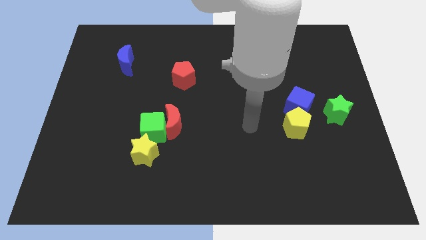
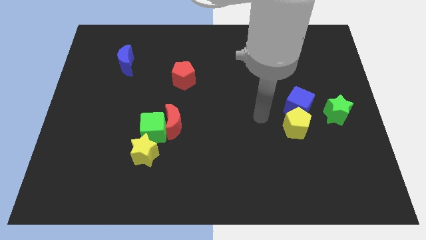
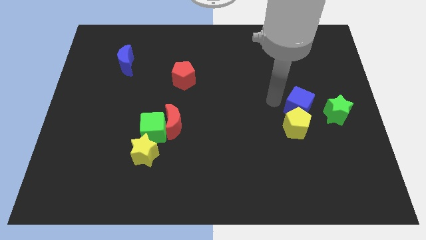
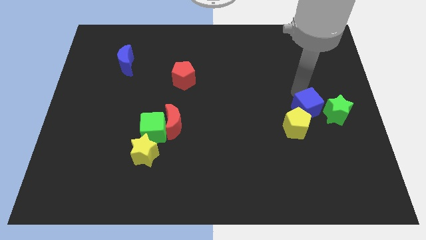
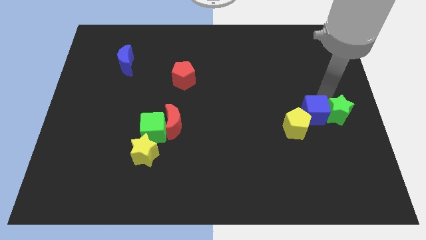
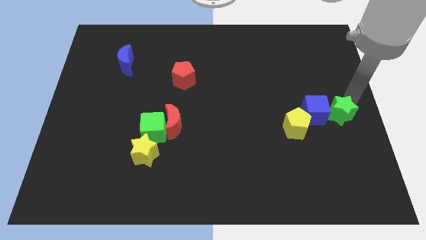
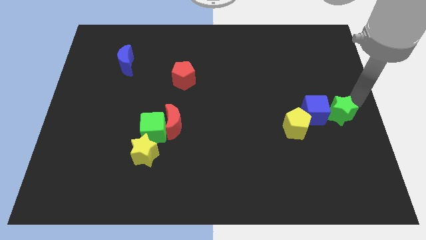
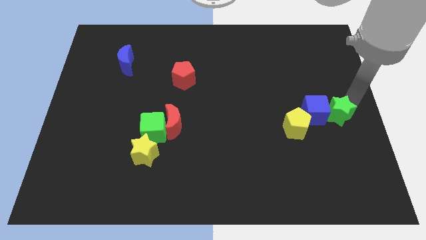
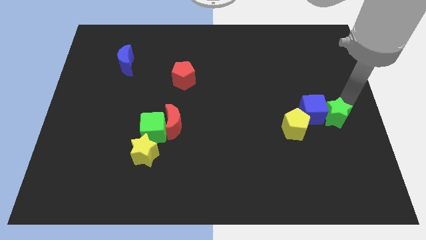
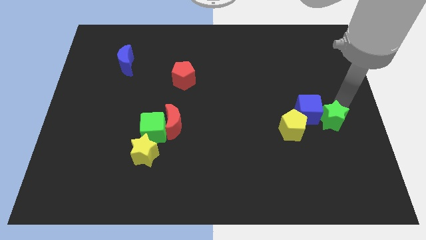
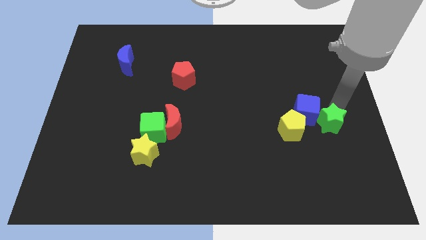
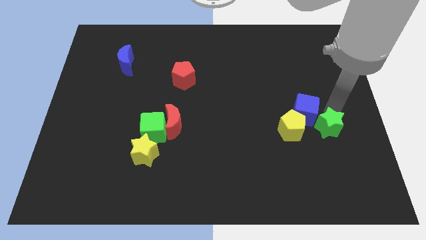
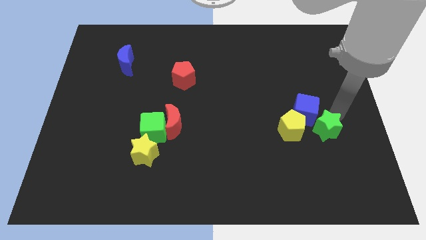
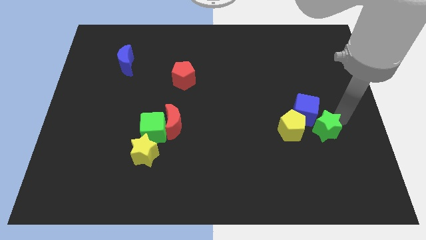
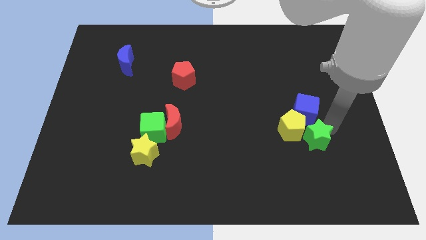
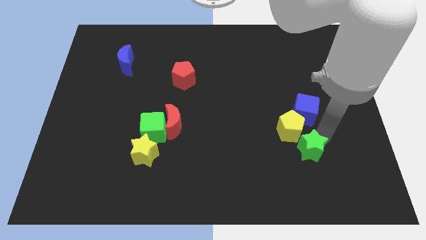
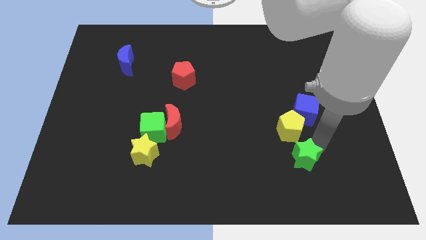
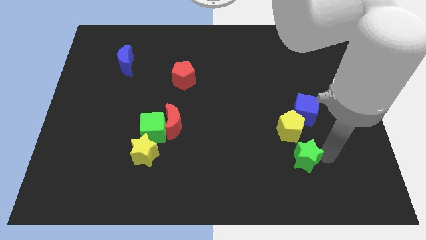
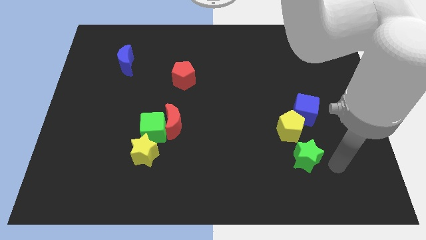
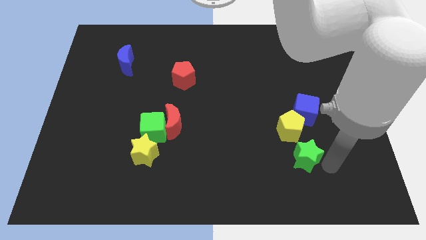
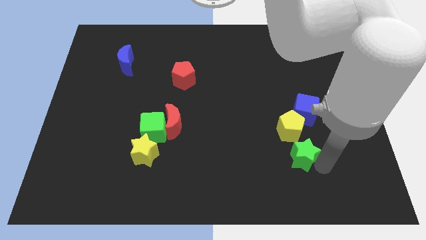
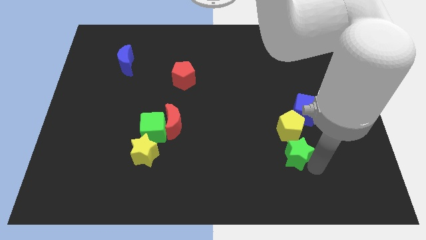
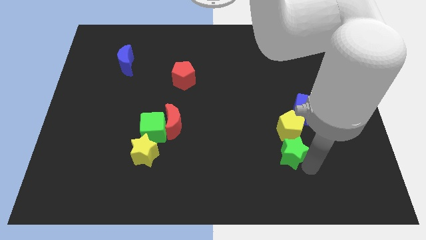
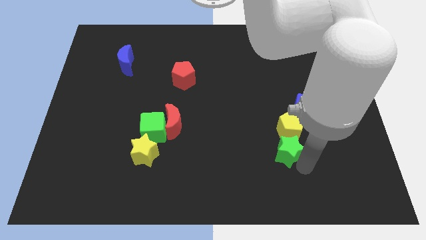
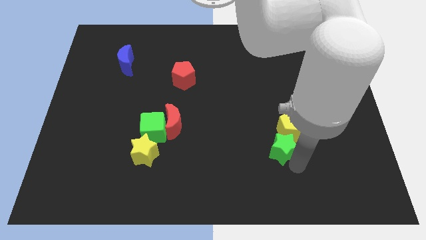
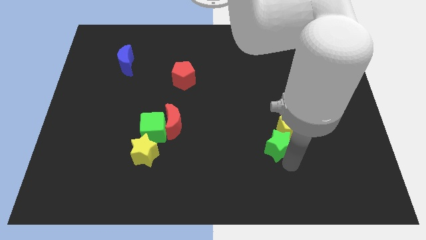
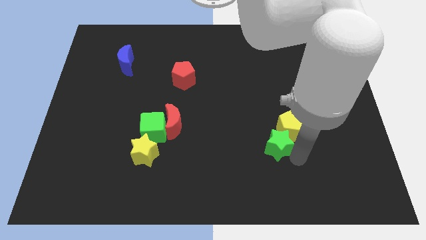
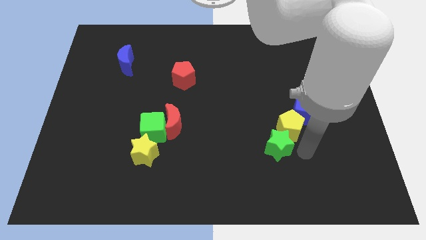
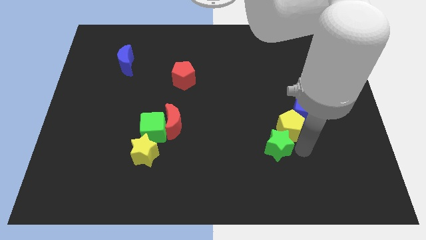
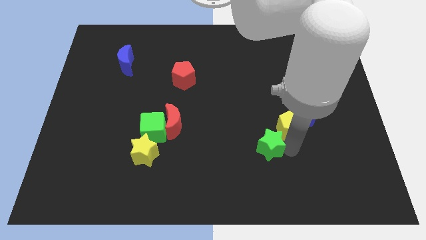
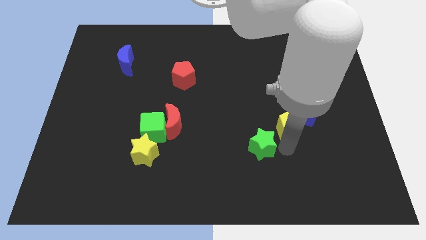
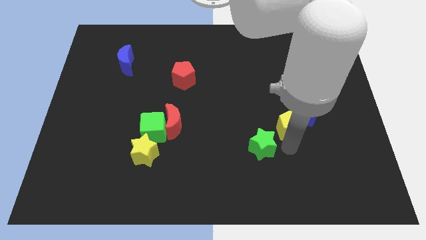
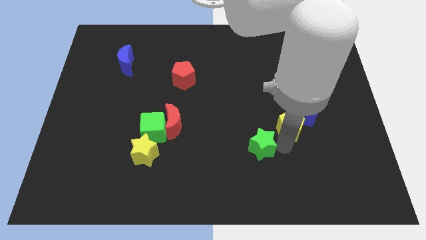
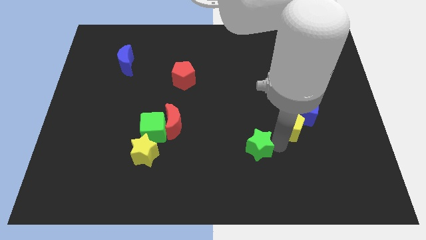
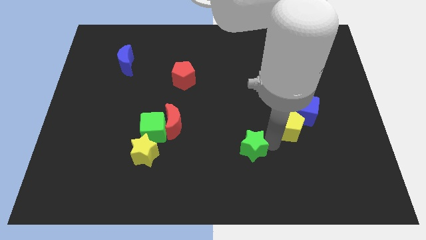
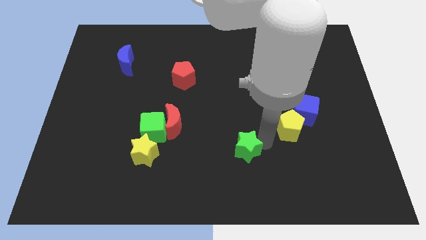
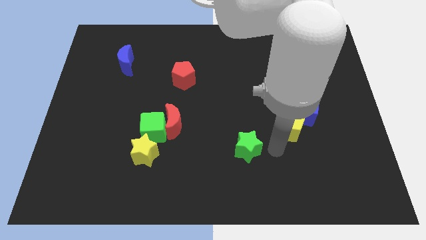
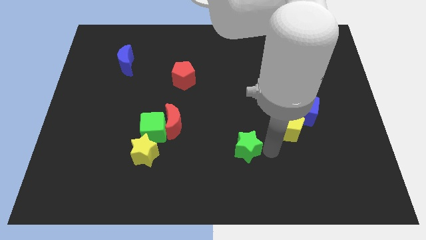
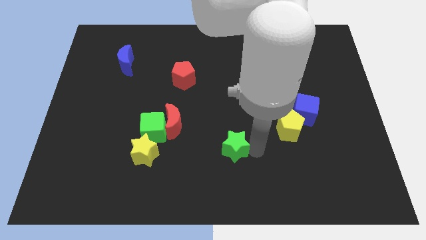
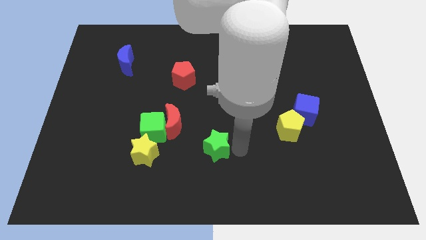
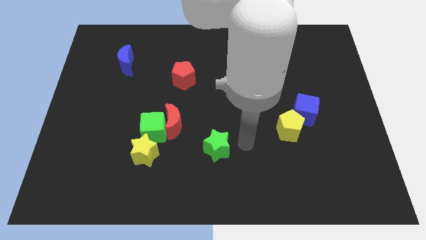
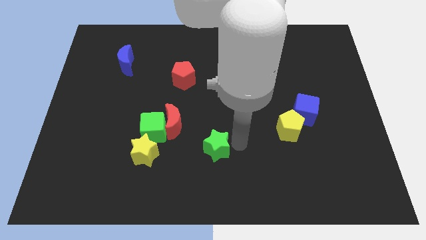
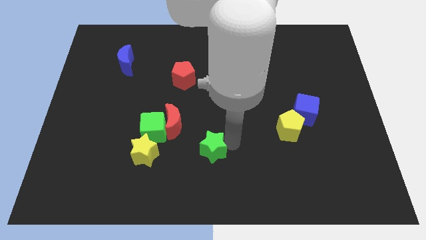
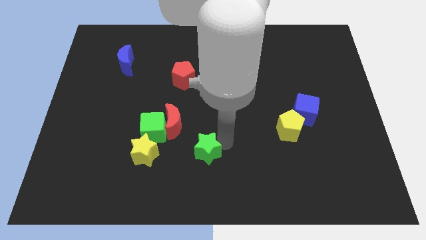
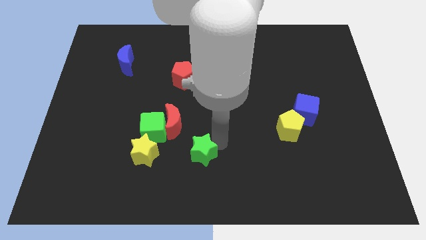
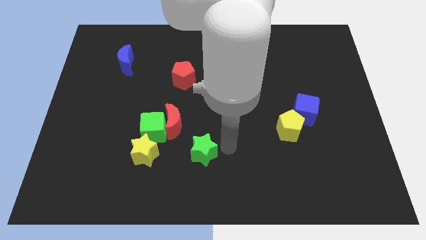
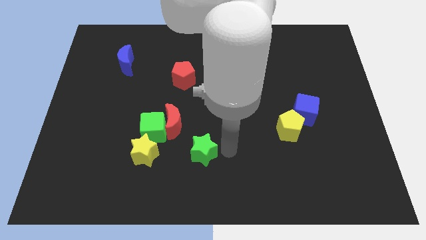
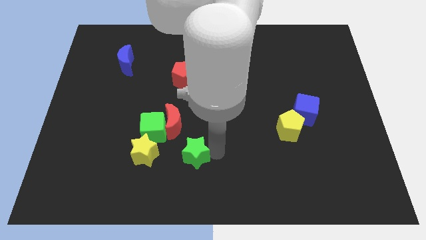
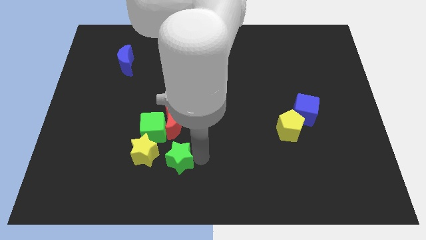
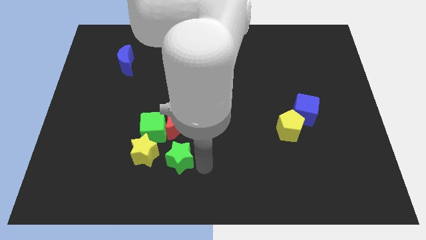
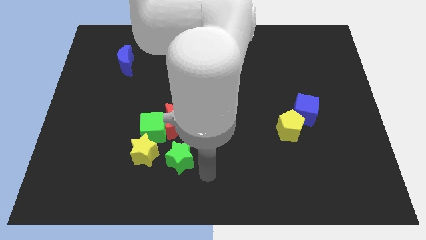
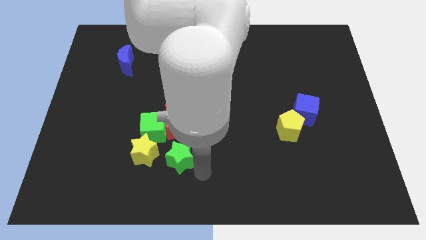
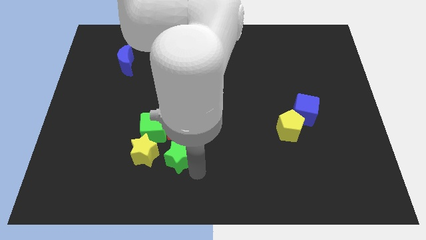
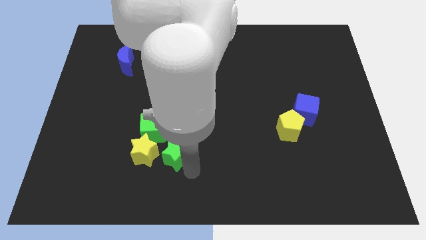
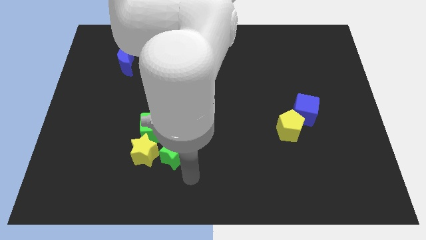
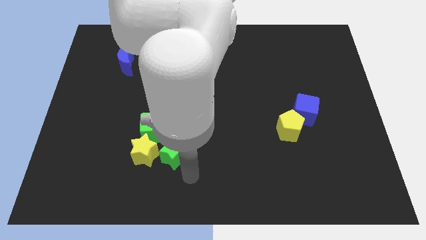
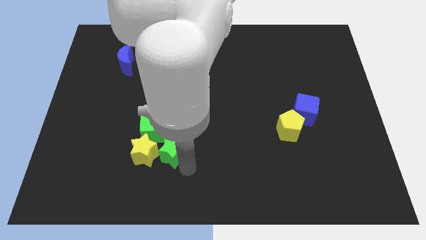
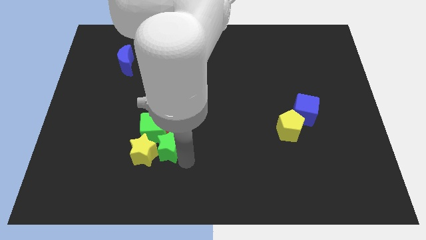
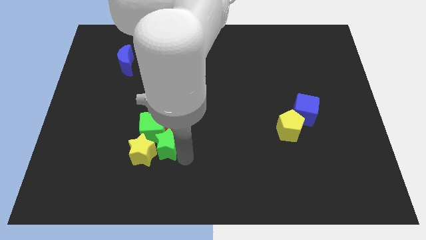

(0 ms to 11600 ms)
put the green star towards the green cube

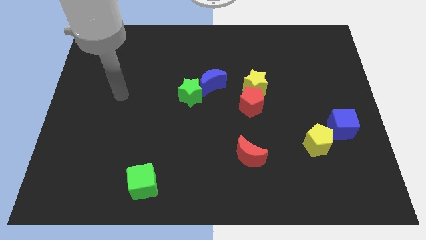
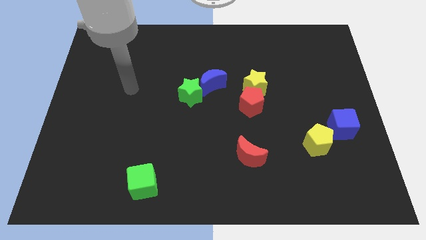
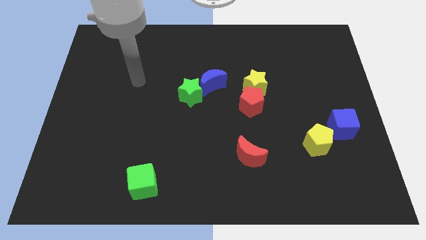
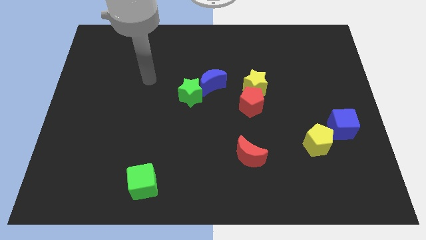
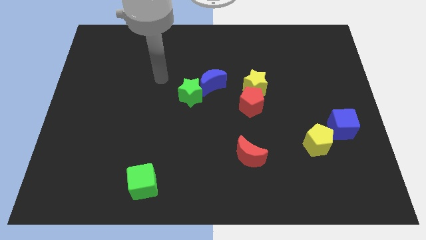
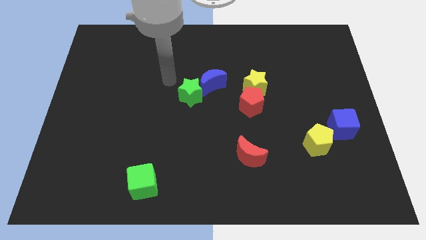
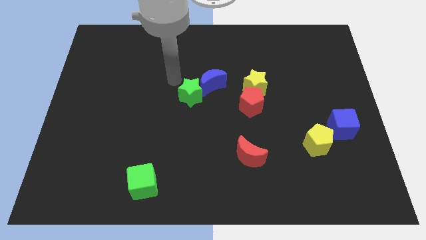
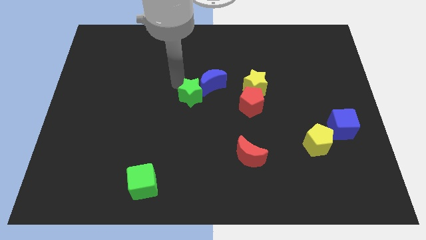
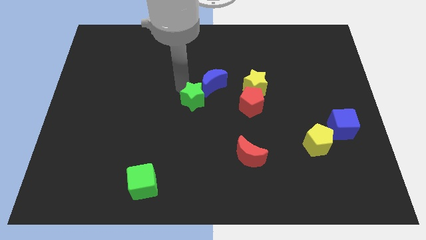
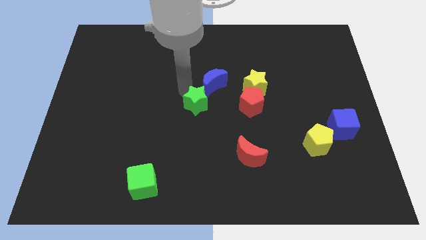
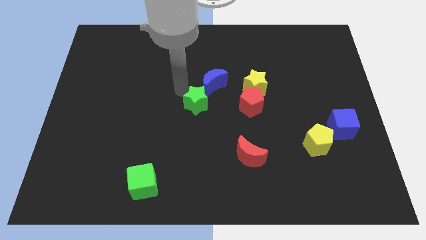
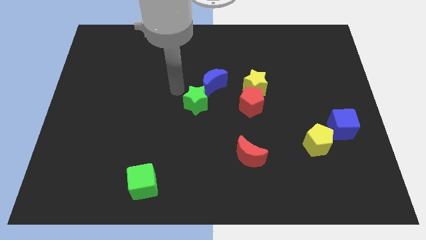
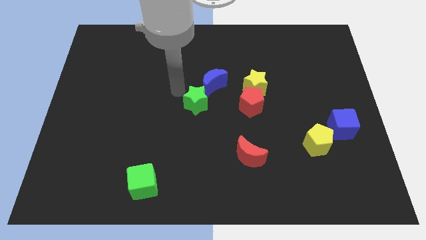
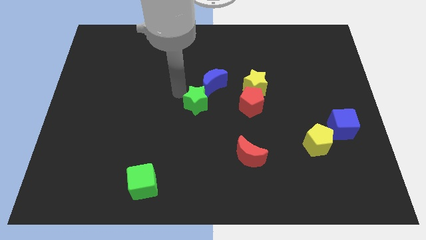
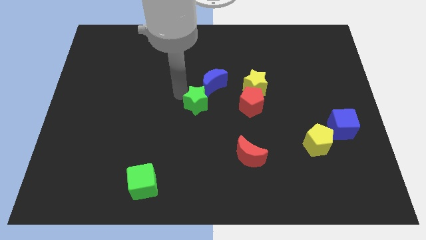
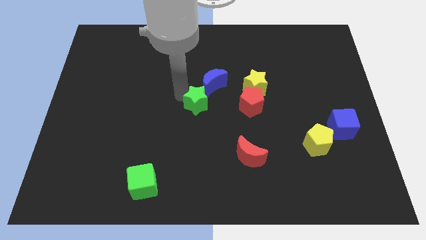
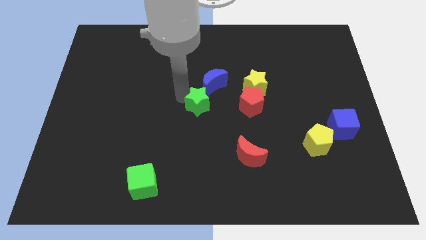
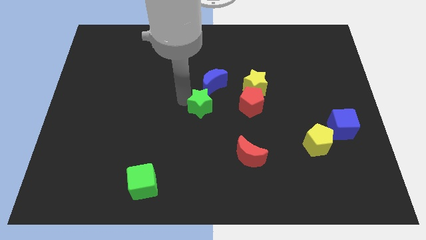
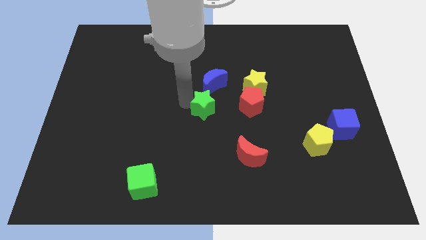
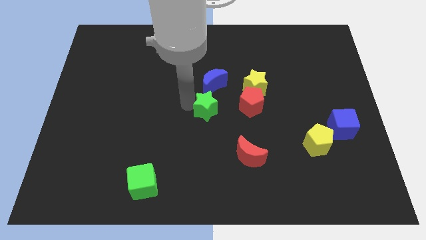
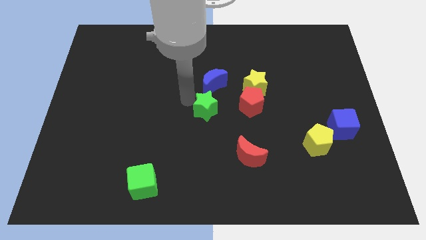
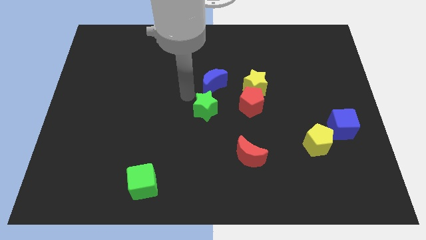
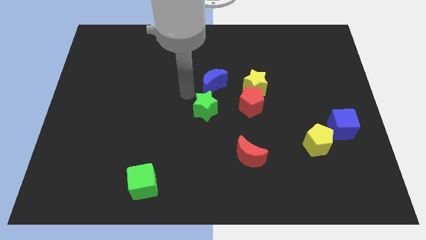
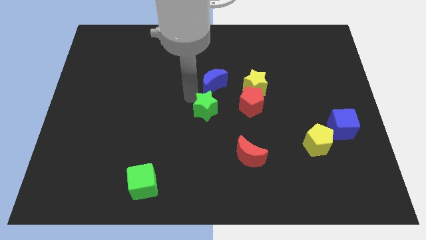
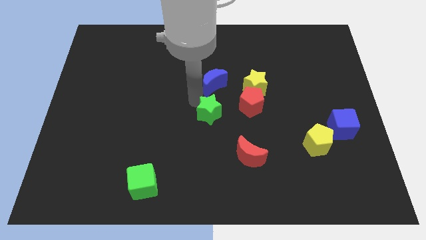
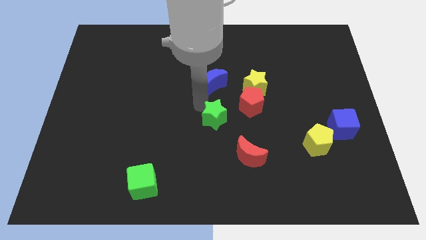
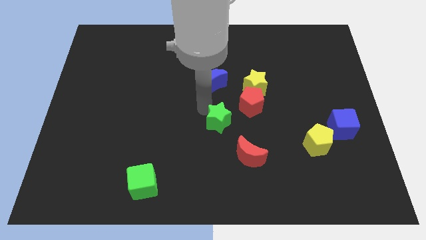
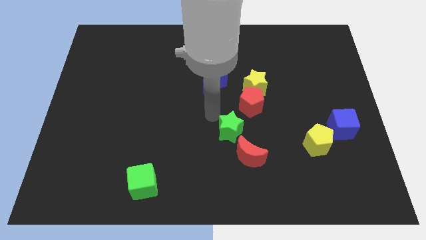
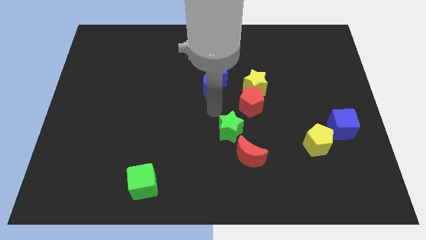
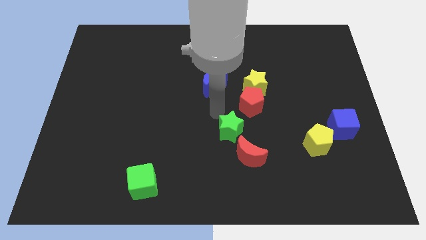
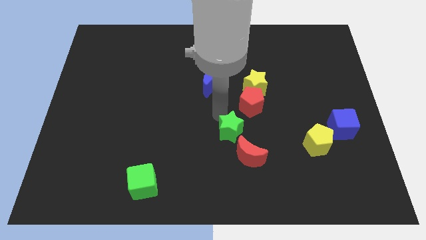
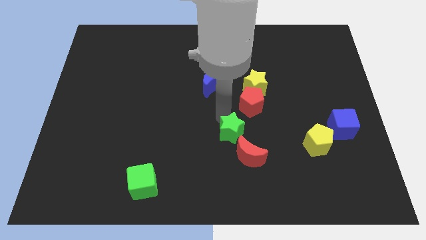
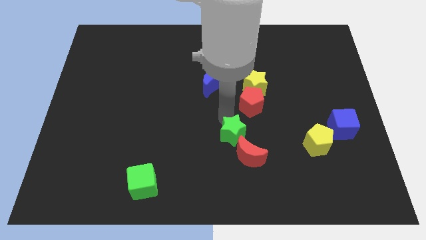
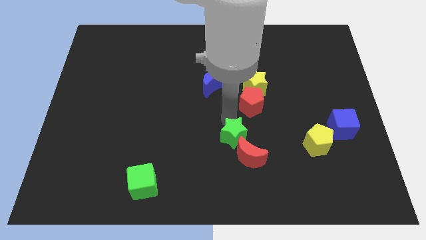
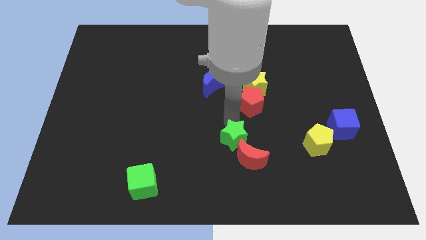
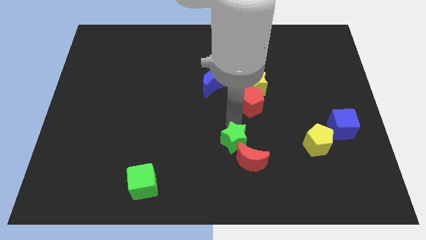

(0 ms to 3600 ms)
slide the green star towards the red moon
